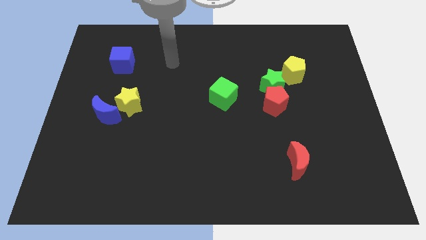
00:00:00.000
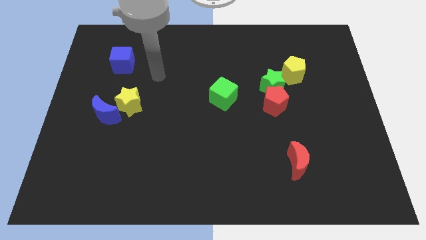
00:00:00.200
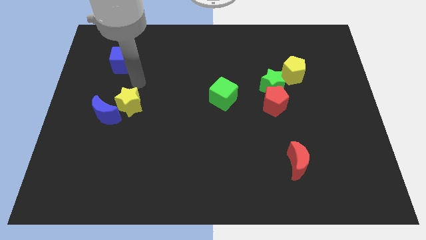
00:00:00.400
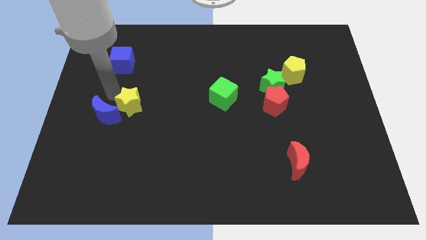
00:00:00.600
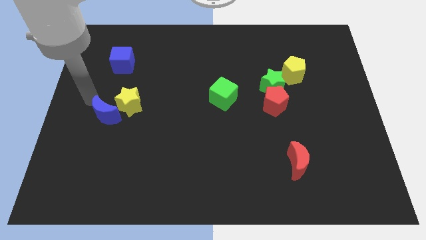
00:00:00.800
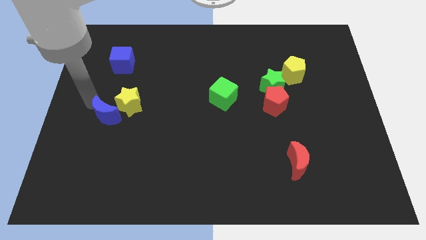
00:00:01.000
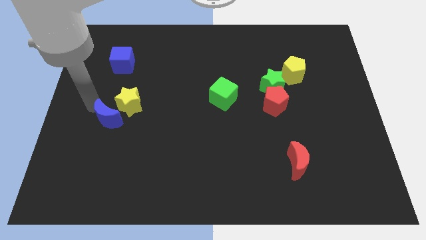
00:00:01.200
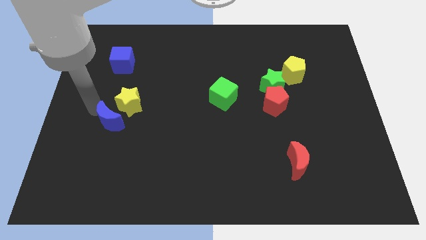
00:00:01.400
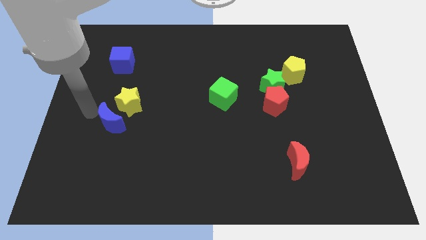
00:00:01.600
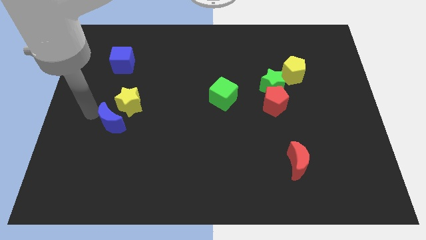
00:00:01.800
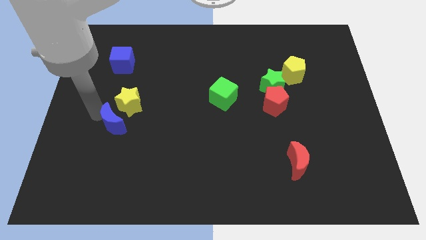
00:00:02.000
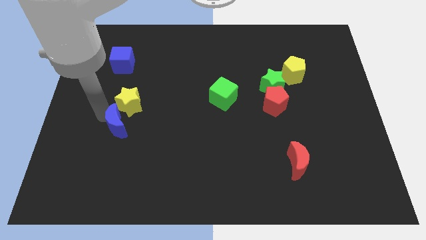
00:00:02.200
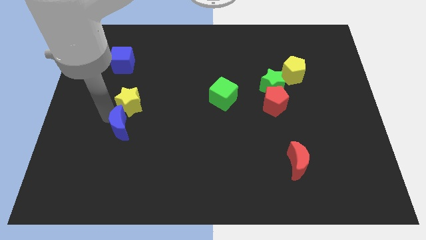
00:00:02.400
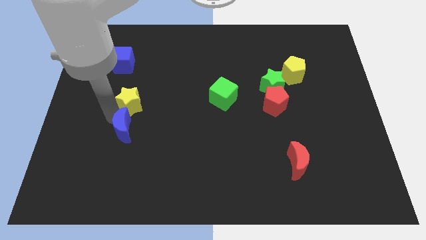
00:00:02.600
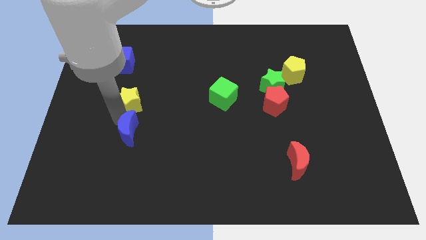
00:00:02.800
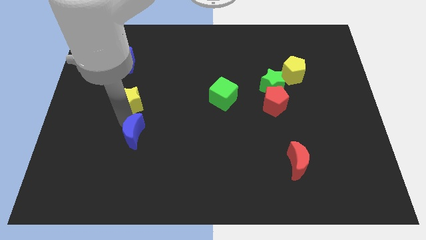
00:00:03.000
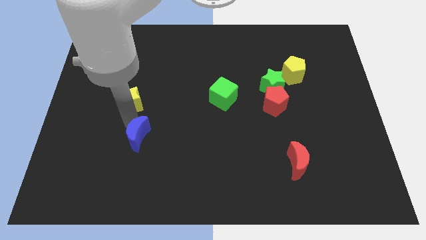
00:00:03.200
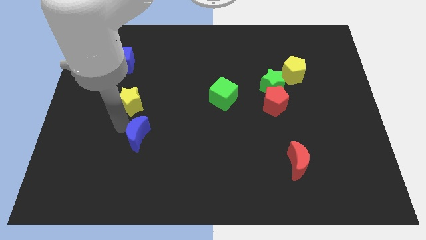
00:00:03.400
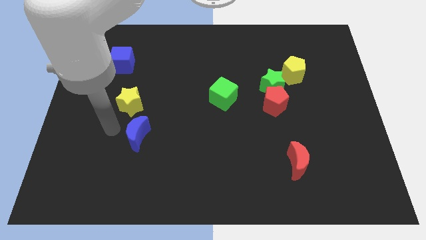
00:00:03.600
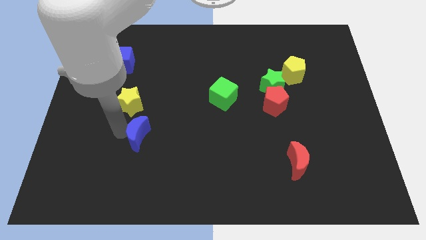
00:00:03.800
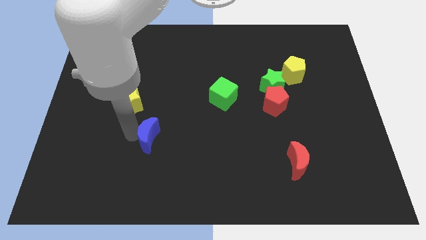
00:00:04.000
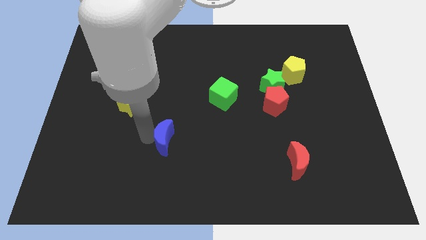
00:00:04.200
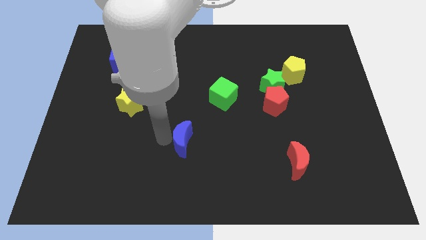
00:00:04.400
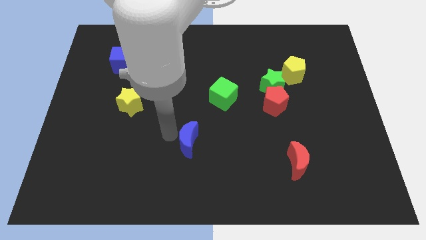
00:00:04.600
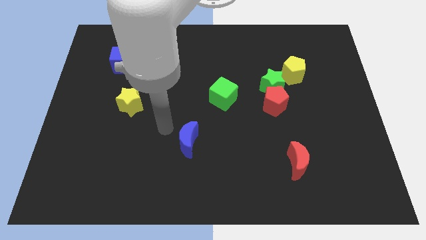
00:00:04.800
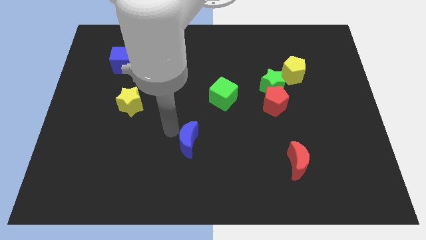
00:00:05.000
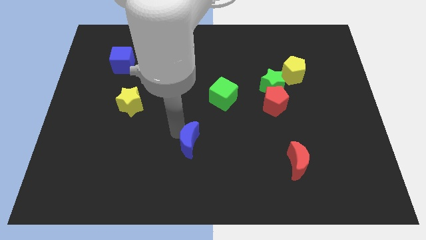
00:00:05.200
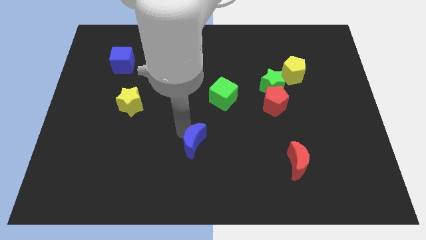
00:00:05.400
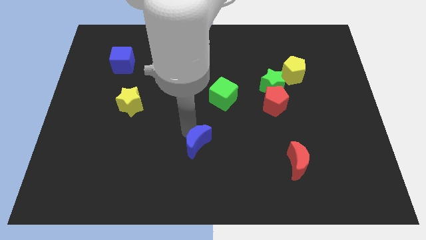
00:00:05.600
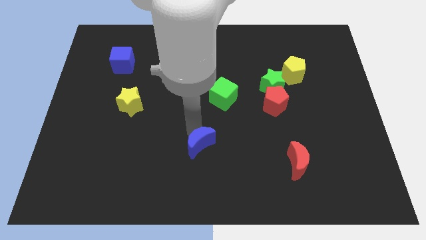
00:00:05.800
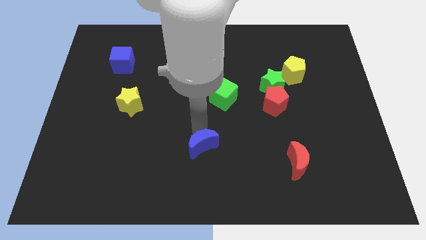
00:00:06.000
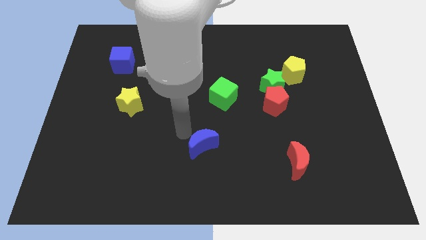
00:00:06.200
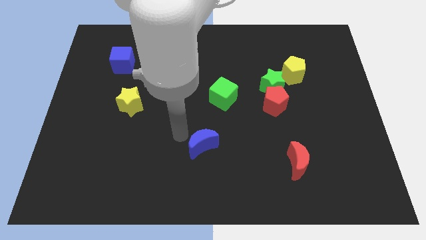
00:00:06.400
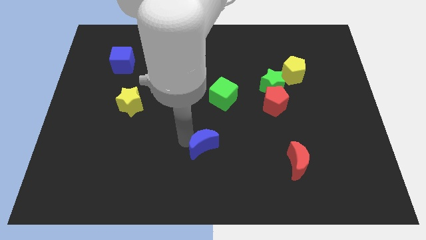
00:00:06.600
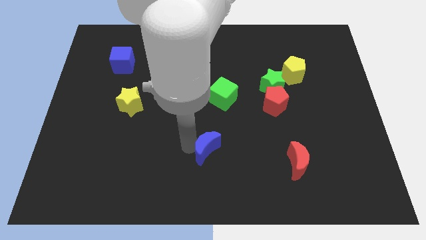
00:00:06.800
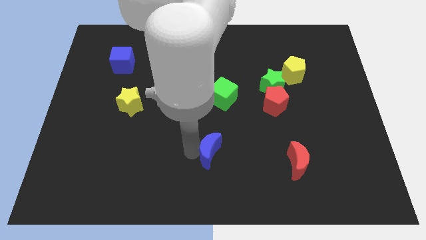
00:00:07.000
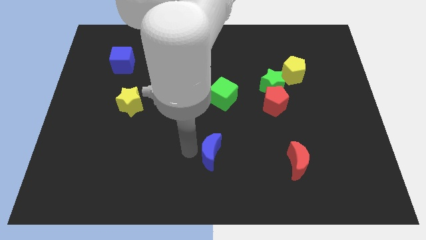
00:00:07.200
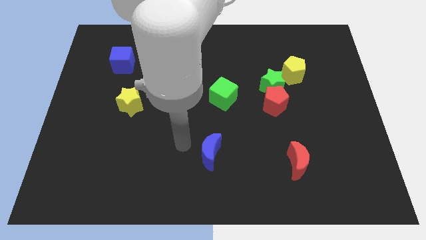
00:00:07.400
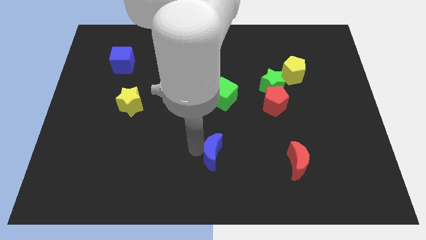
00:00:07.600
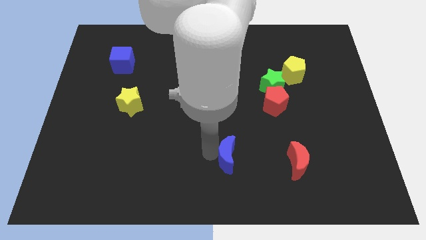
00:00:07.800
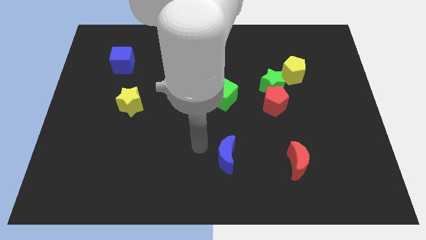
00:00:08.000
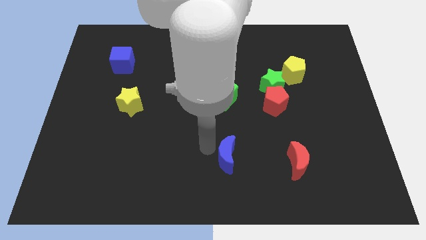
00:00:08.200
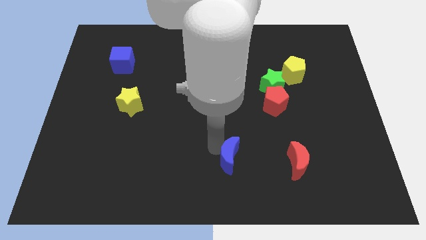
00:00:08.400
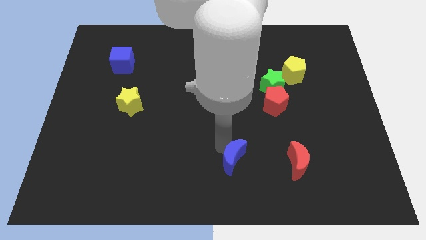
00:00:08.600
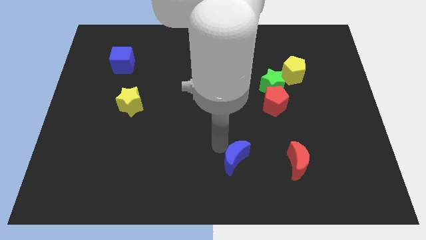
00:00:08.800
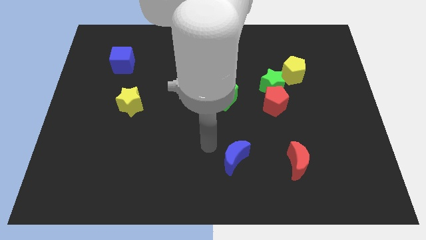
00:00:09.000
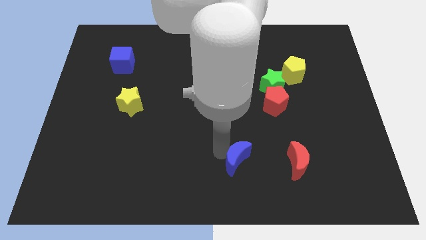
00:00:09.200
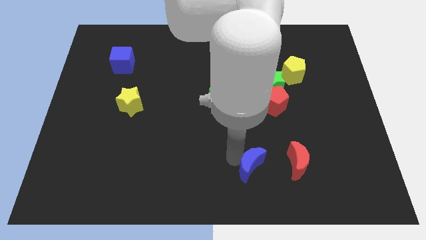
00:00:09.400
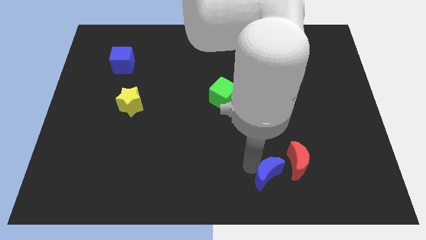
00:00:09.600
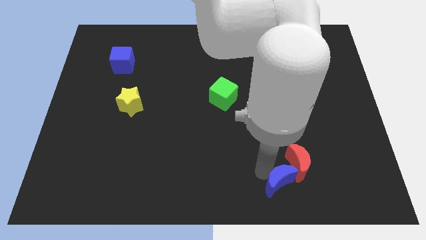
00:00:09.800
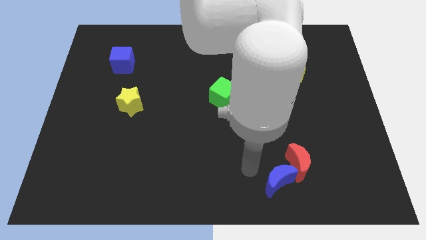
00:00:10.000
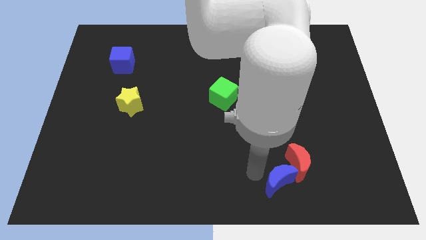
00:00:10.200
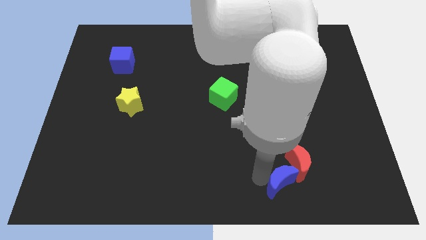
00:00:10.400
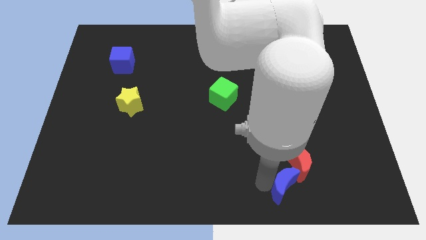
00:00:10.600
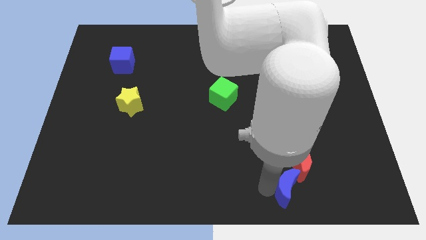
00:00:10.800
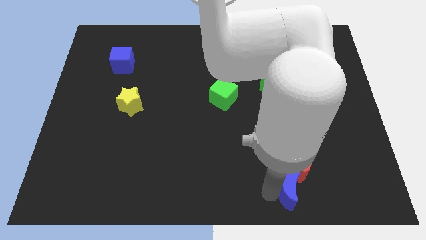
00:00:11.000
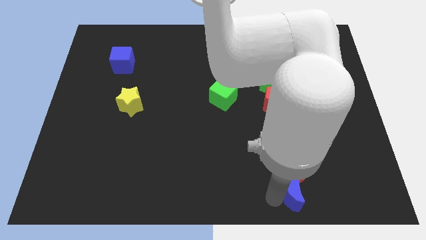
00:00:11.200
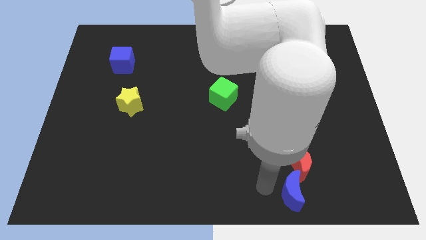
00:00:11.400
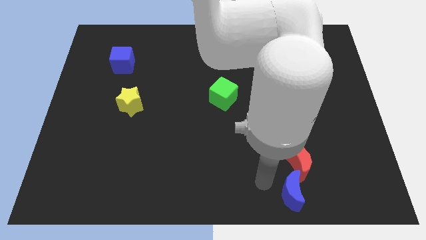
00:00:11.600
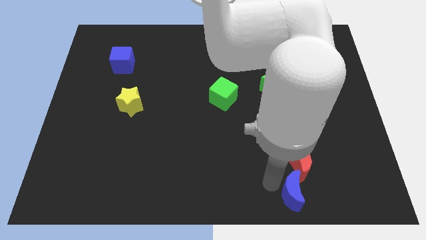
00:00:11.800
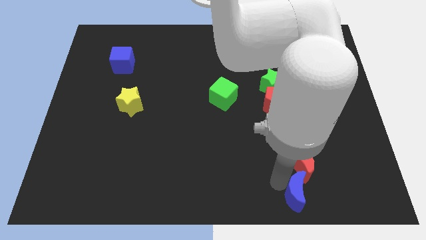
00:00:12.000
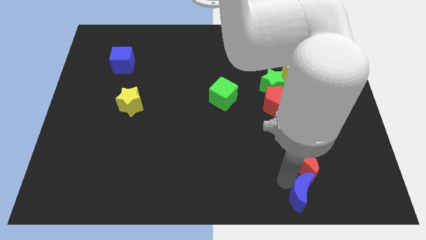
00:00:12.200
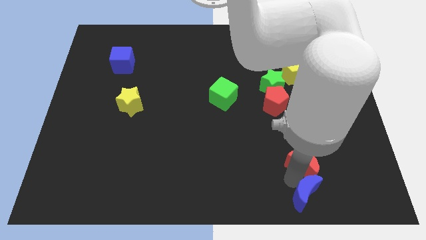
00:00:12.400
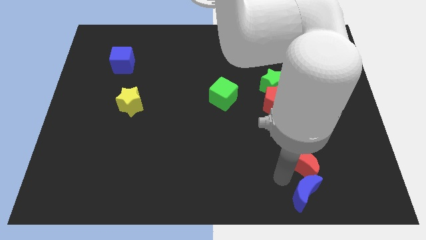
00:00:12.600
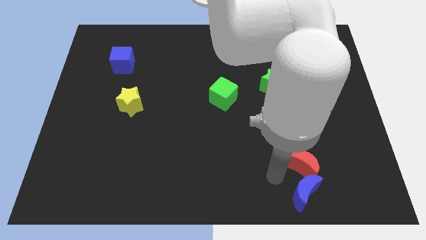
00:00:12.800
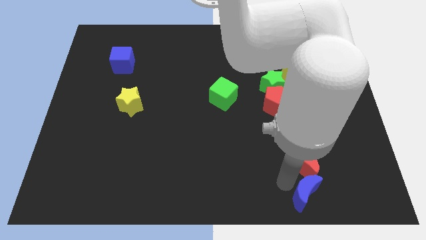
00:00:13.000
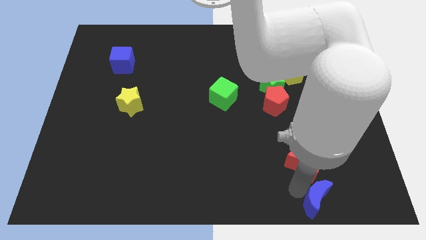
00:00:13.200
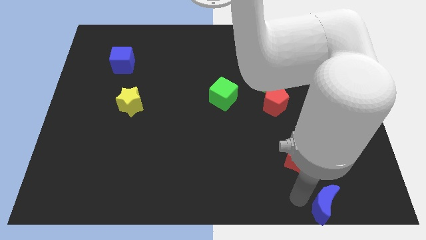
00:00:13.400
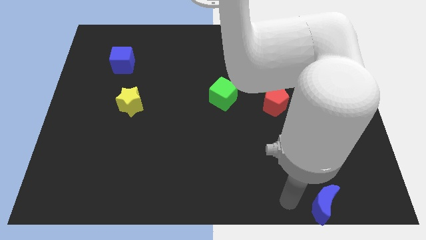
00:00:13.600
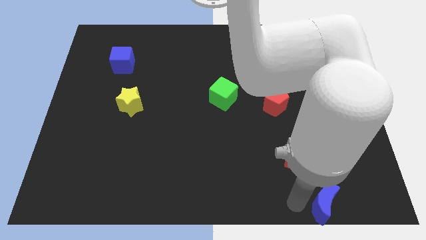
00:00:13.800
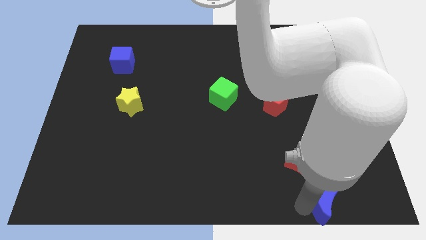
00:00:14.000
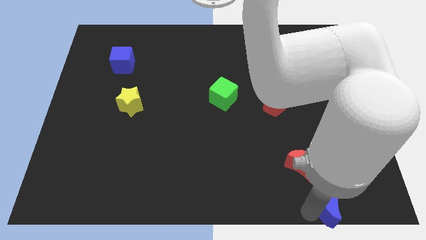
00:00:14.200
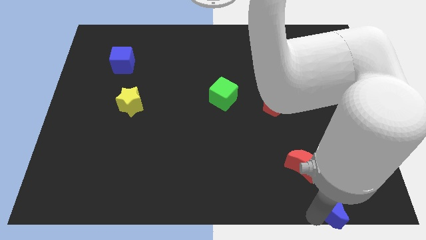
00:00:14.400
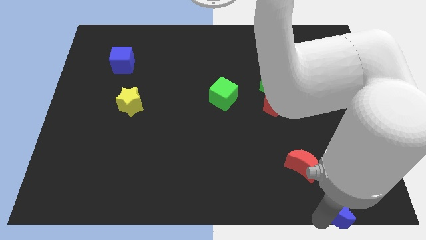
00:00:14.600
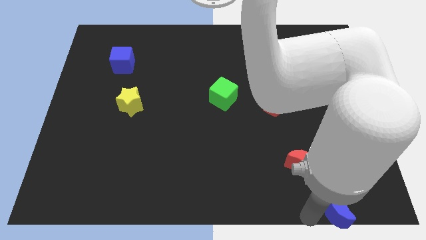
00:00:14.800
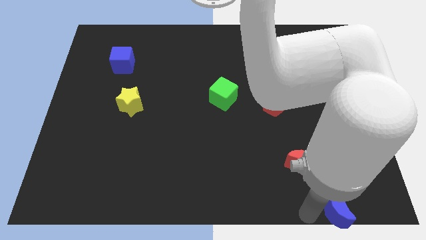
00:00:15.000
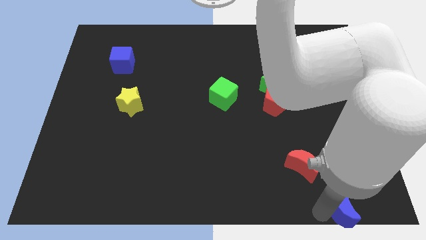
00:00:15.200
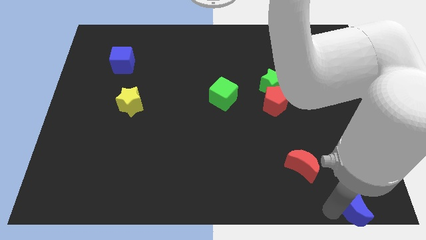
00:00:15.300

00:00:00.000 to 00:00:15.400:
push the blue moon to the lower right corner
